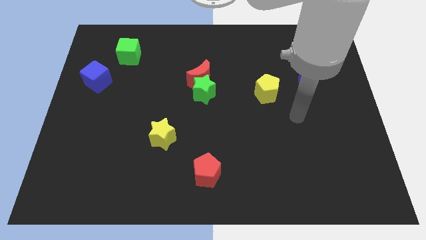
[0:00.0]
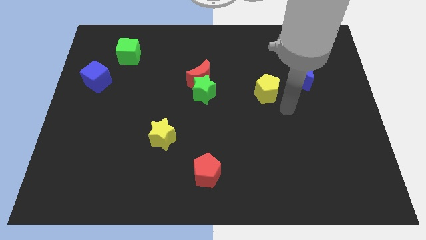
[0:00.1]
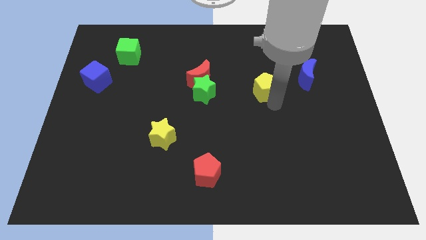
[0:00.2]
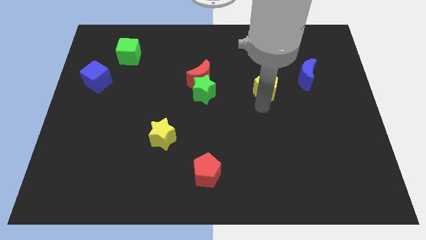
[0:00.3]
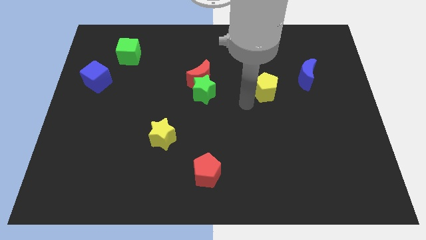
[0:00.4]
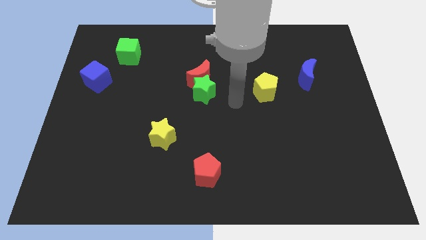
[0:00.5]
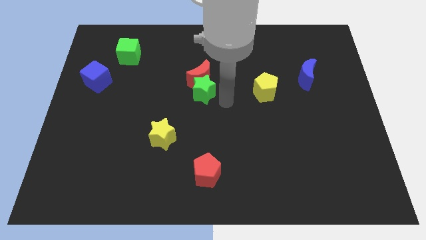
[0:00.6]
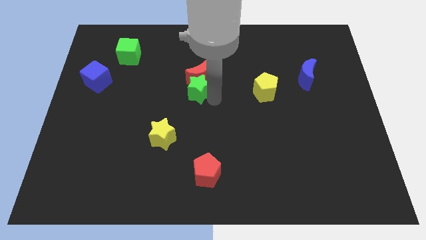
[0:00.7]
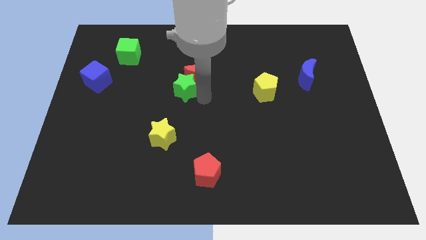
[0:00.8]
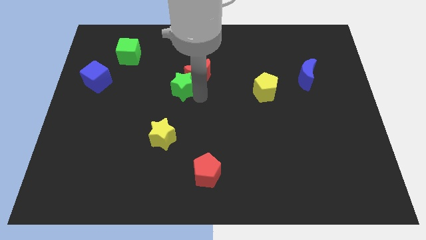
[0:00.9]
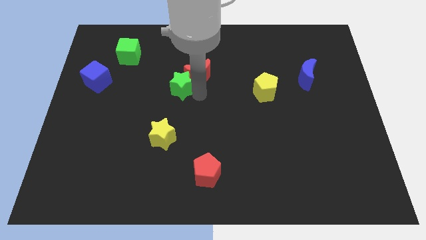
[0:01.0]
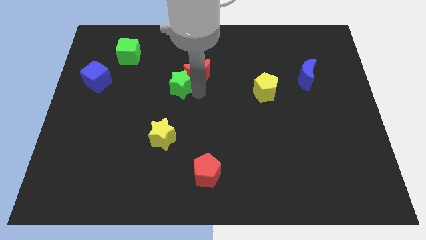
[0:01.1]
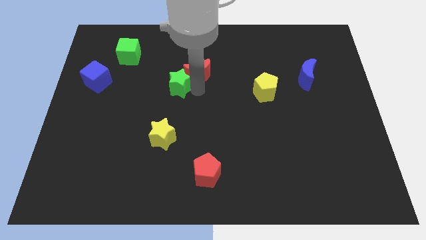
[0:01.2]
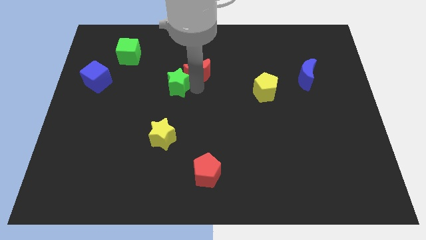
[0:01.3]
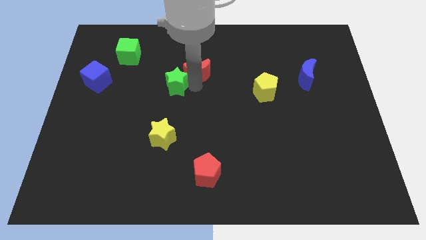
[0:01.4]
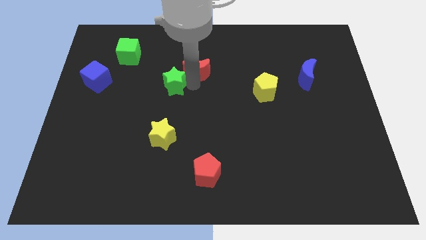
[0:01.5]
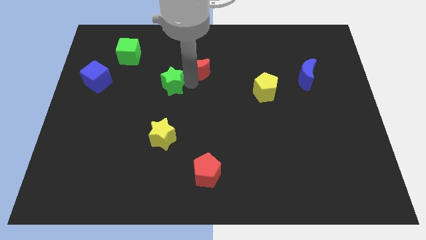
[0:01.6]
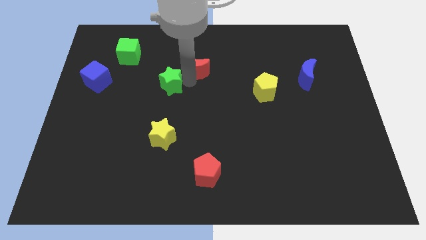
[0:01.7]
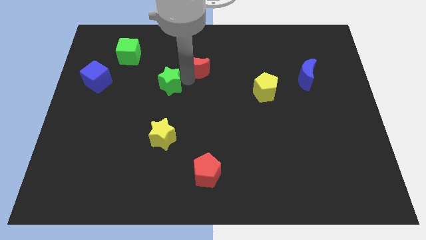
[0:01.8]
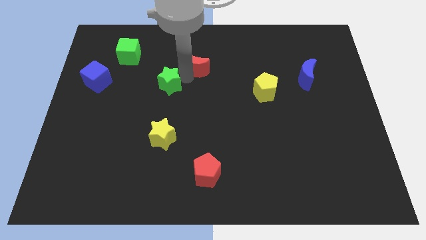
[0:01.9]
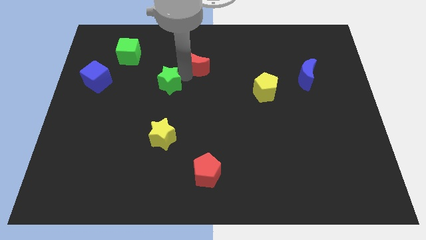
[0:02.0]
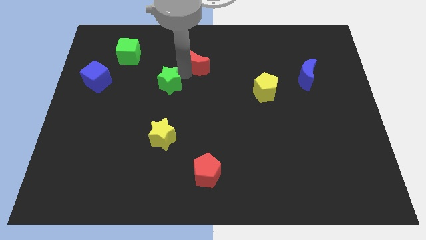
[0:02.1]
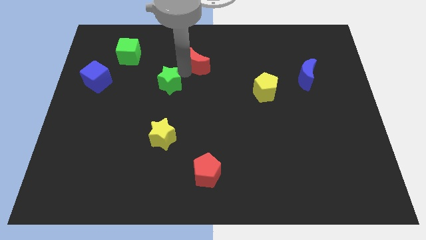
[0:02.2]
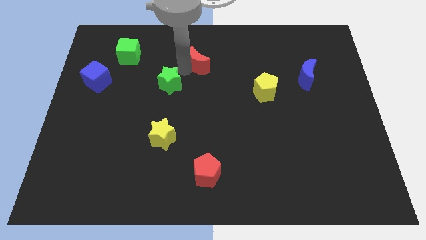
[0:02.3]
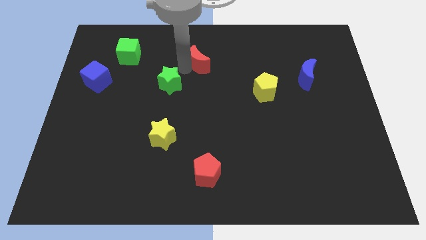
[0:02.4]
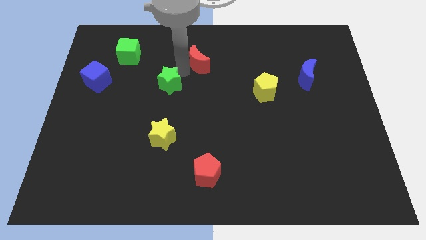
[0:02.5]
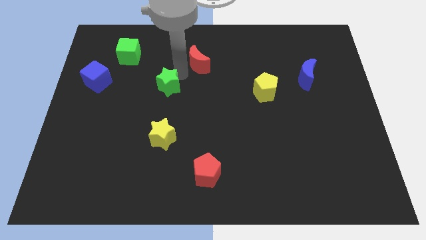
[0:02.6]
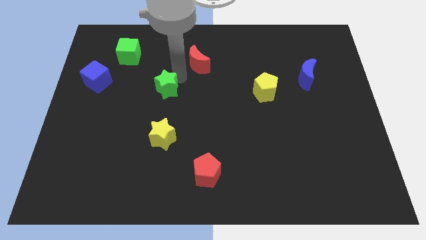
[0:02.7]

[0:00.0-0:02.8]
pull the red moon apart from the green star

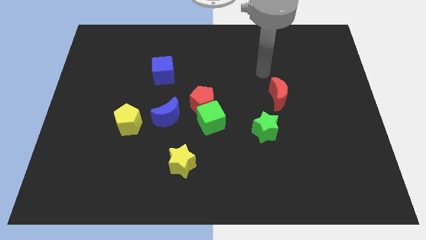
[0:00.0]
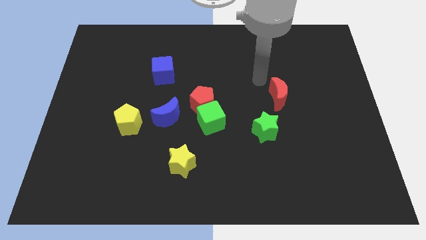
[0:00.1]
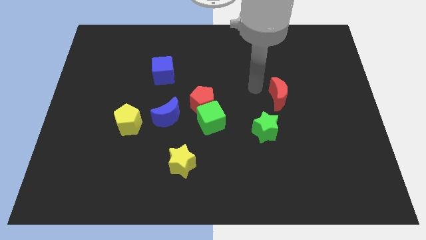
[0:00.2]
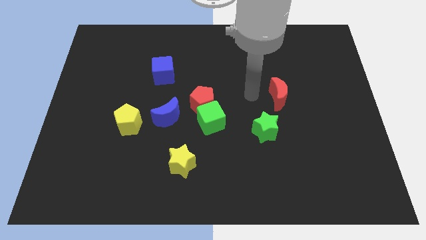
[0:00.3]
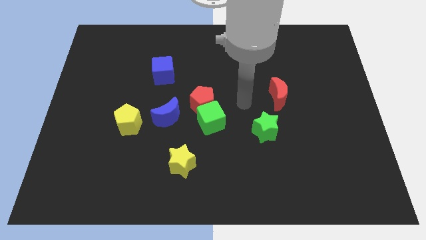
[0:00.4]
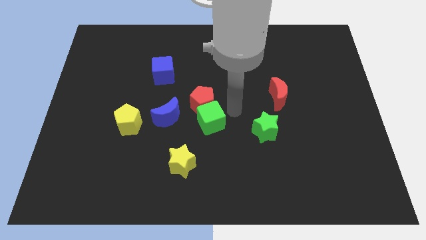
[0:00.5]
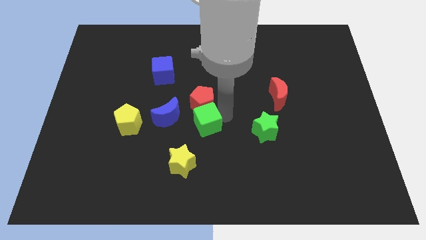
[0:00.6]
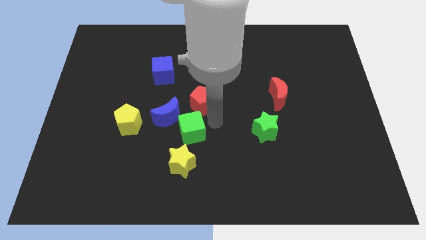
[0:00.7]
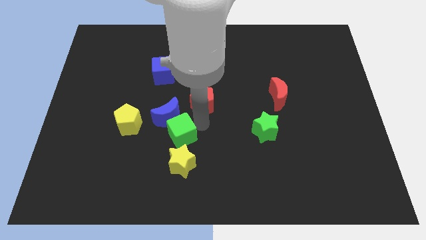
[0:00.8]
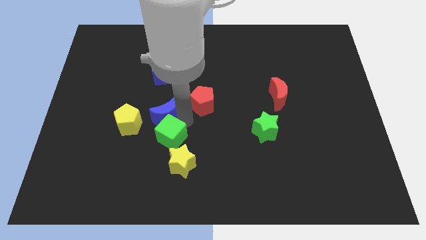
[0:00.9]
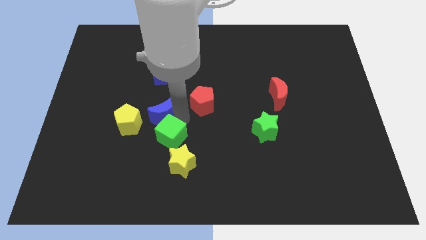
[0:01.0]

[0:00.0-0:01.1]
separate the red pentagon from the green cube and blue moon

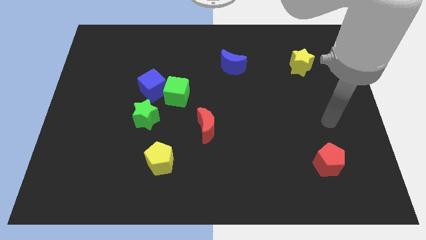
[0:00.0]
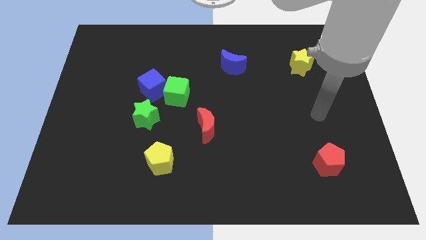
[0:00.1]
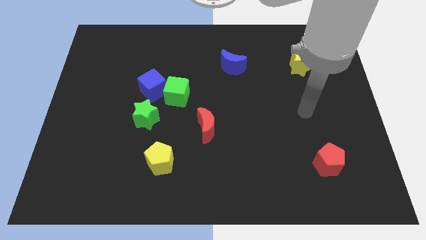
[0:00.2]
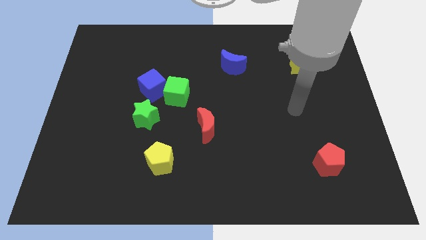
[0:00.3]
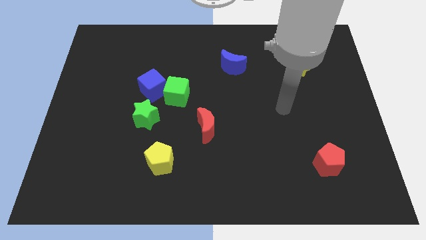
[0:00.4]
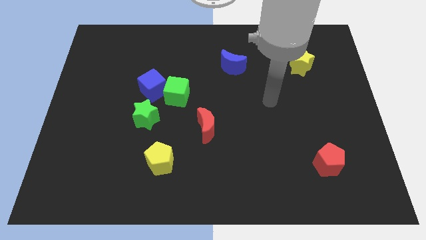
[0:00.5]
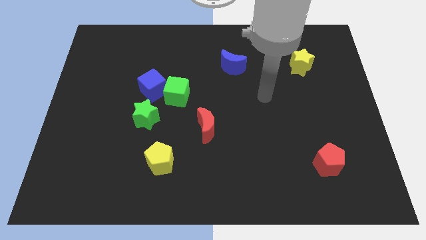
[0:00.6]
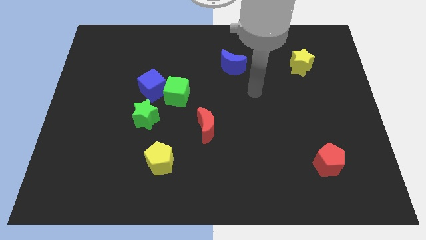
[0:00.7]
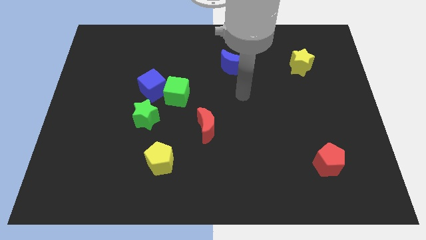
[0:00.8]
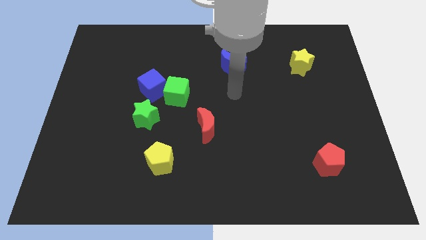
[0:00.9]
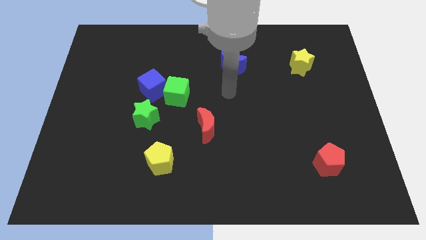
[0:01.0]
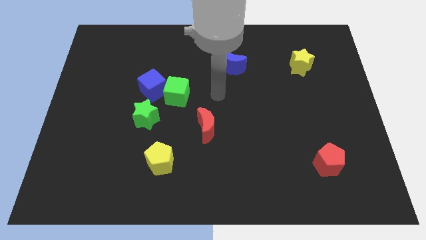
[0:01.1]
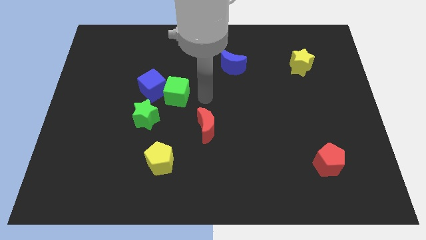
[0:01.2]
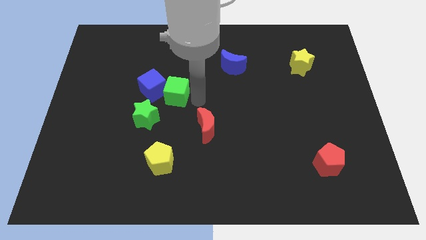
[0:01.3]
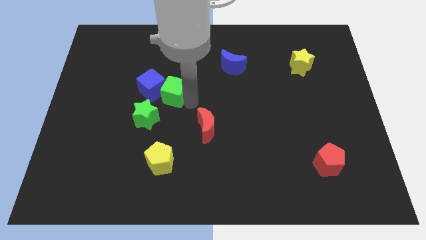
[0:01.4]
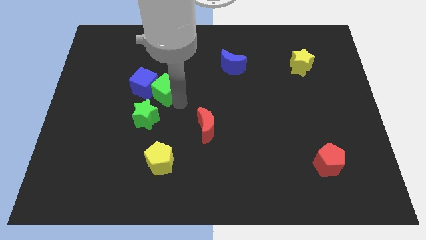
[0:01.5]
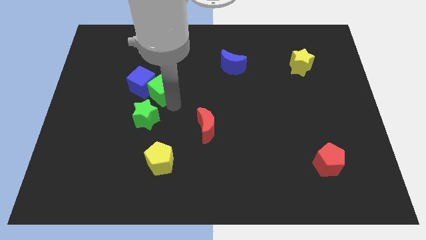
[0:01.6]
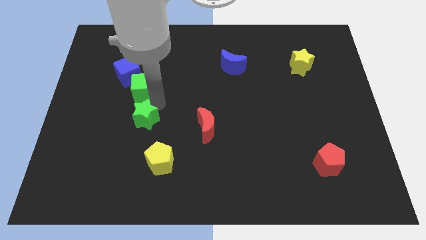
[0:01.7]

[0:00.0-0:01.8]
pull the blue cube apart from the green cube and green star

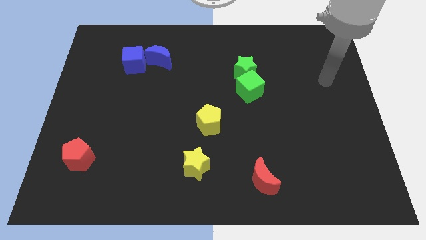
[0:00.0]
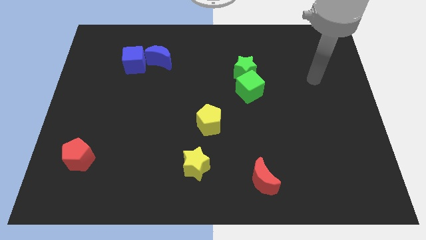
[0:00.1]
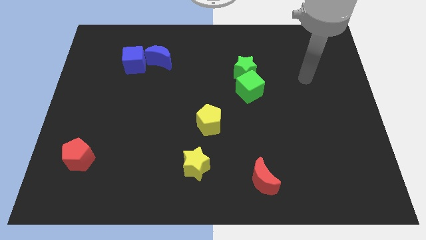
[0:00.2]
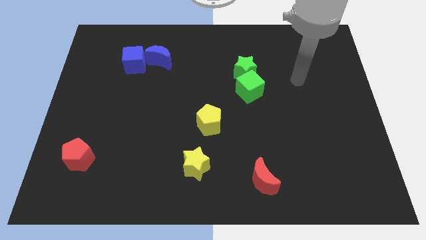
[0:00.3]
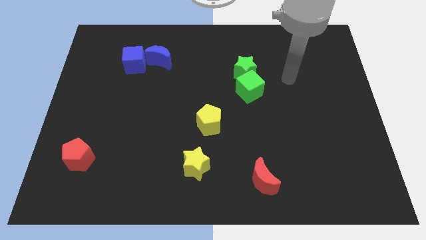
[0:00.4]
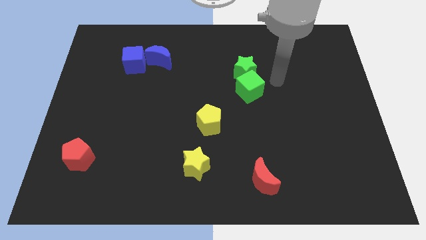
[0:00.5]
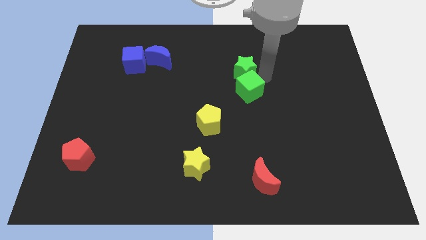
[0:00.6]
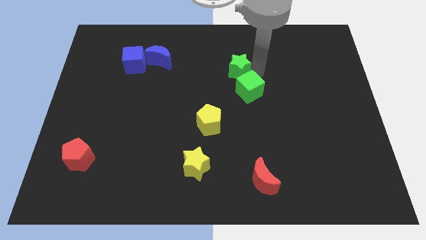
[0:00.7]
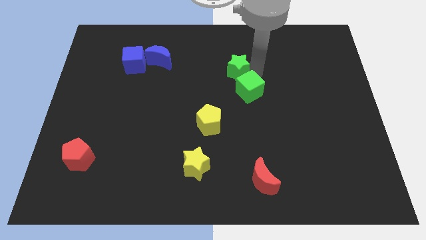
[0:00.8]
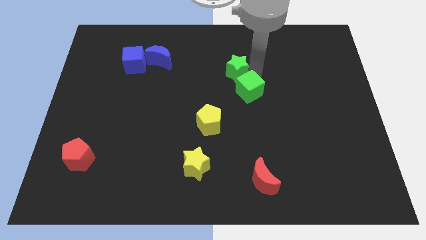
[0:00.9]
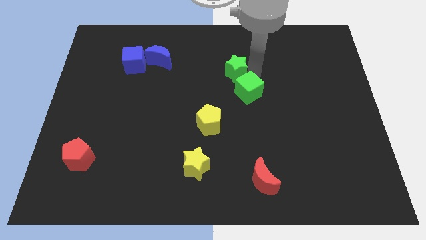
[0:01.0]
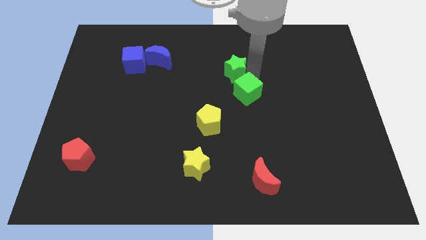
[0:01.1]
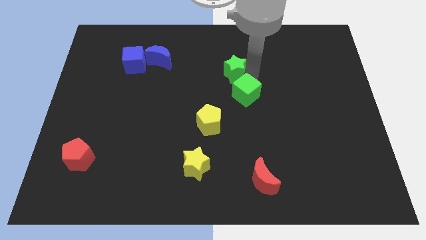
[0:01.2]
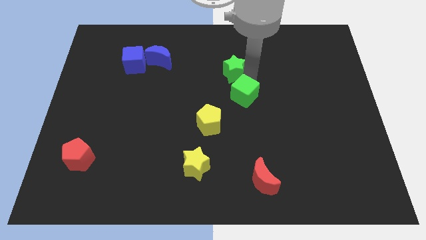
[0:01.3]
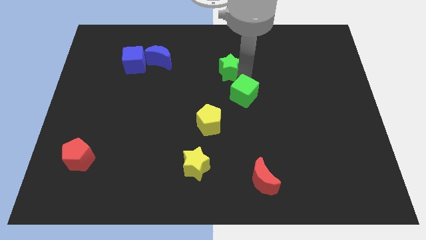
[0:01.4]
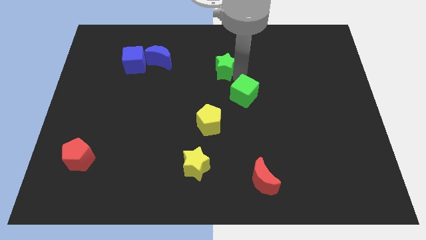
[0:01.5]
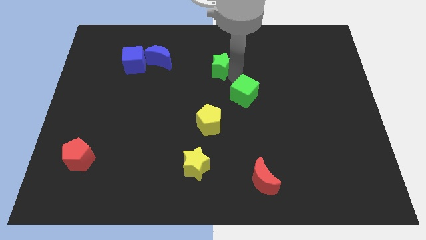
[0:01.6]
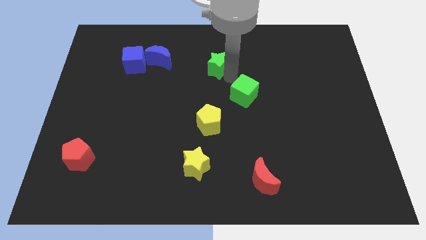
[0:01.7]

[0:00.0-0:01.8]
move the green cube away from the green star

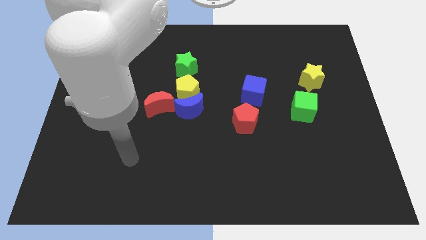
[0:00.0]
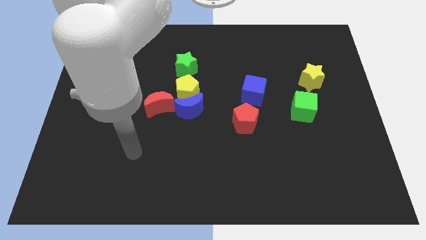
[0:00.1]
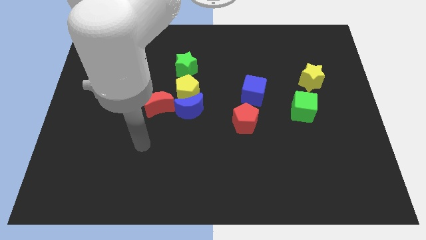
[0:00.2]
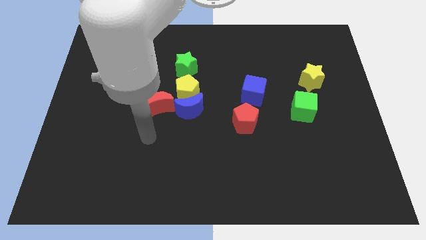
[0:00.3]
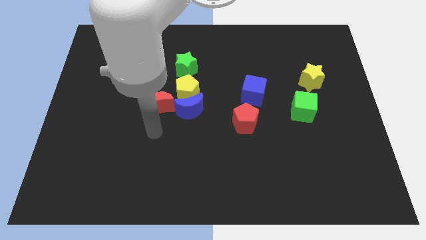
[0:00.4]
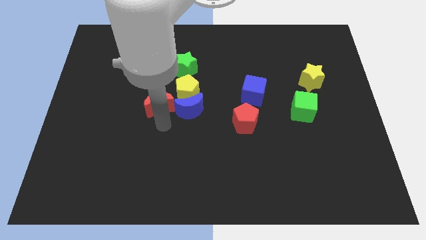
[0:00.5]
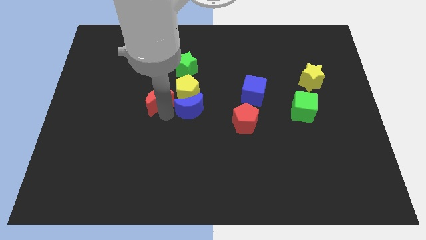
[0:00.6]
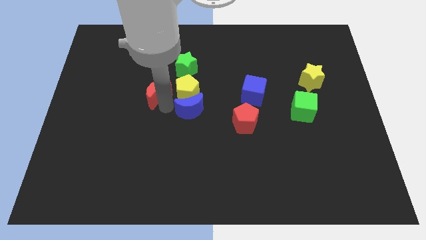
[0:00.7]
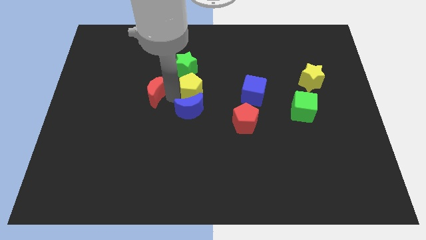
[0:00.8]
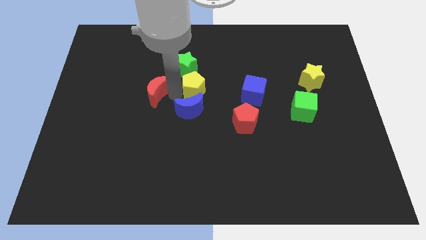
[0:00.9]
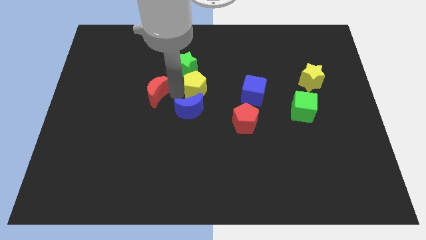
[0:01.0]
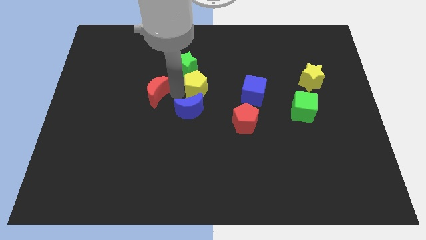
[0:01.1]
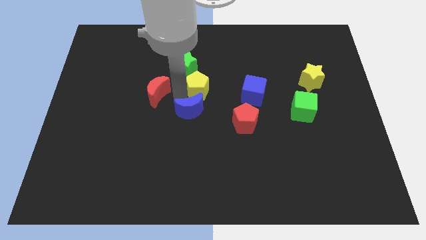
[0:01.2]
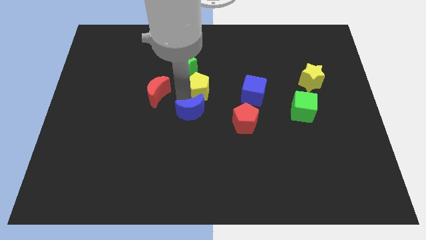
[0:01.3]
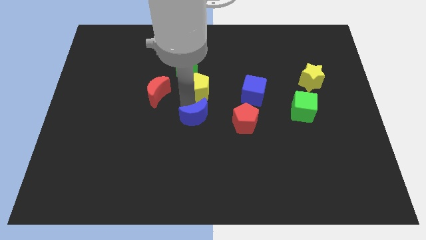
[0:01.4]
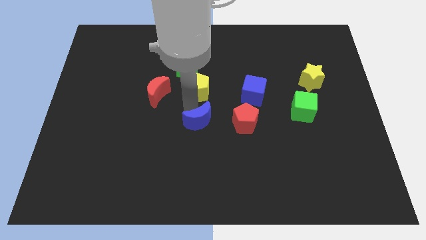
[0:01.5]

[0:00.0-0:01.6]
pull the blue moon apart from the yellow pentagon and red moon

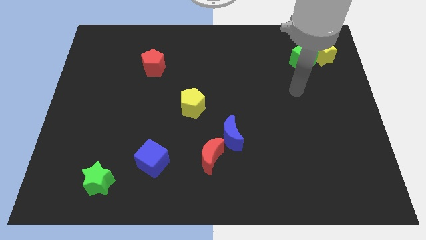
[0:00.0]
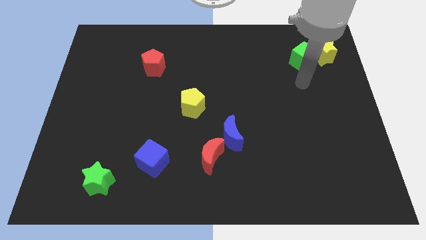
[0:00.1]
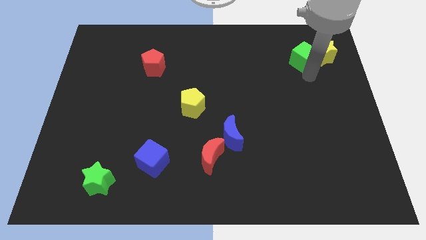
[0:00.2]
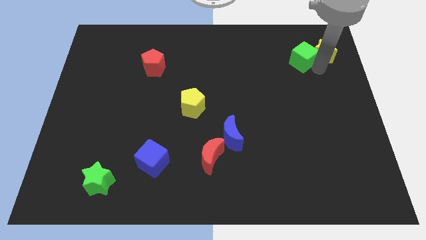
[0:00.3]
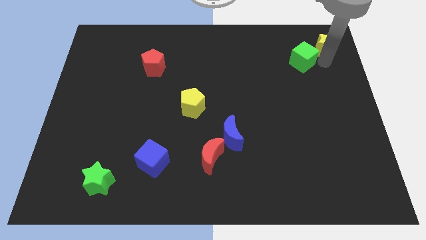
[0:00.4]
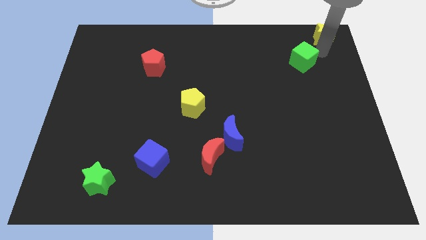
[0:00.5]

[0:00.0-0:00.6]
pull the green cube apart from the yellow star
